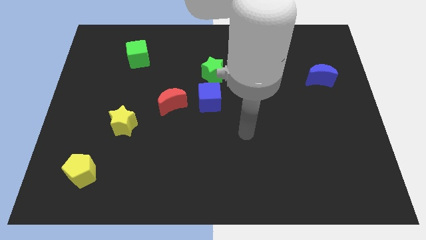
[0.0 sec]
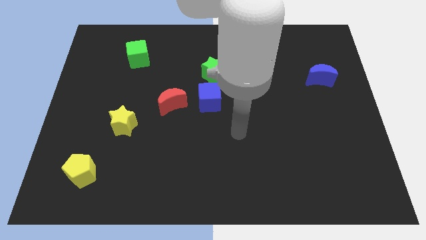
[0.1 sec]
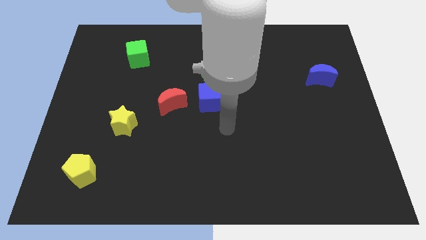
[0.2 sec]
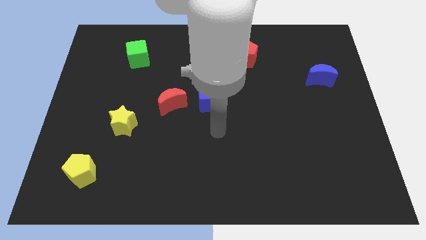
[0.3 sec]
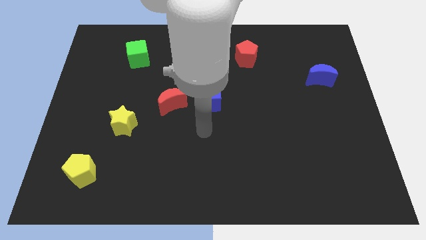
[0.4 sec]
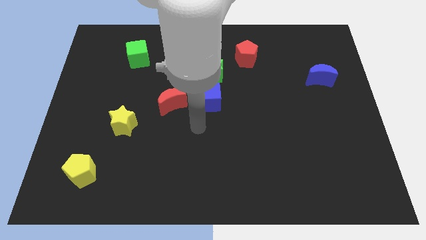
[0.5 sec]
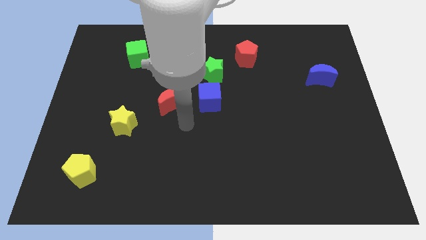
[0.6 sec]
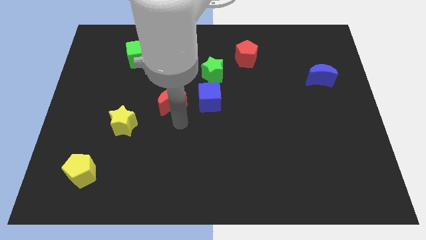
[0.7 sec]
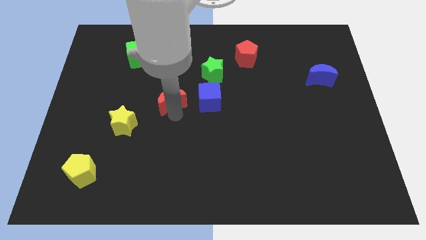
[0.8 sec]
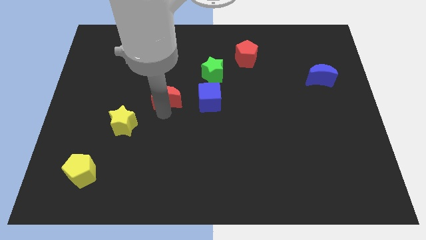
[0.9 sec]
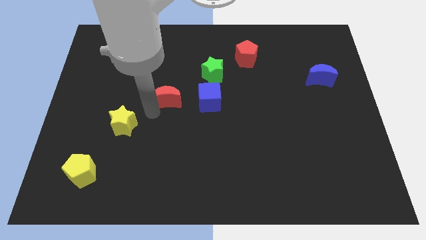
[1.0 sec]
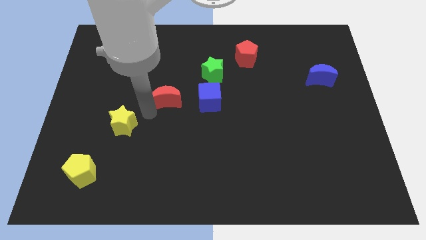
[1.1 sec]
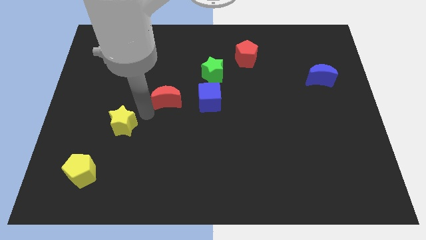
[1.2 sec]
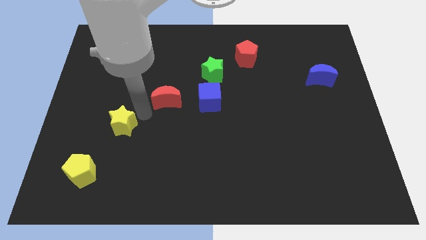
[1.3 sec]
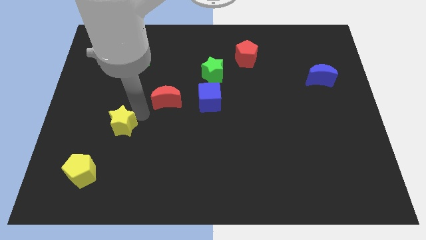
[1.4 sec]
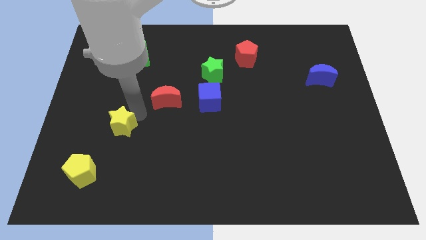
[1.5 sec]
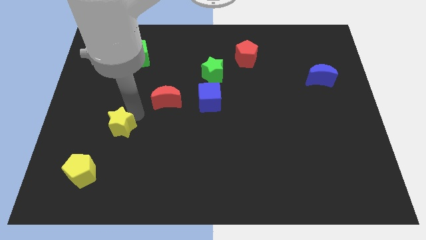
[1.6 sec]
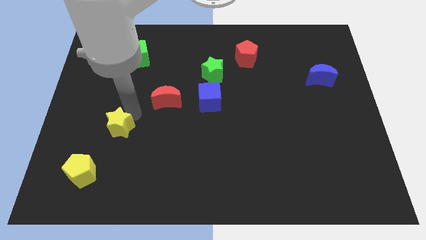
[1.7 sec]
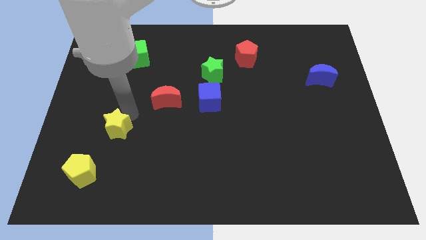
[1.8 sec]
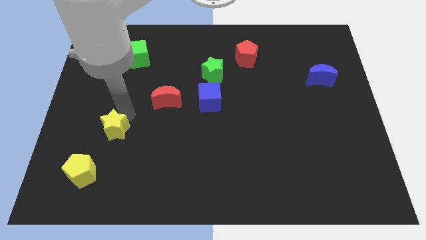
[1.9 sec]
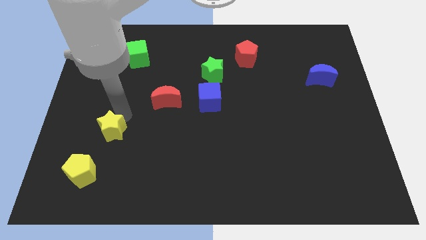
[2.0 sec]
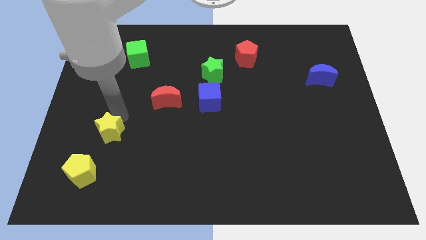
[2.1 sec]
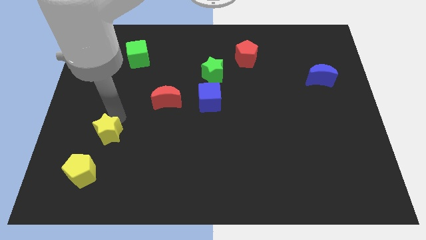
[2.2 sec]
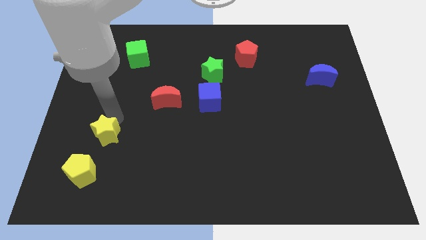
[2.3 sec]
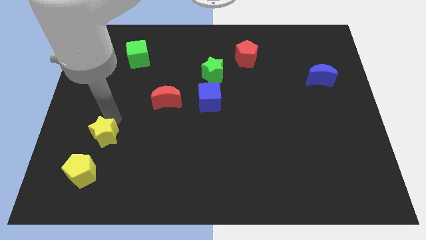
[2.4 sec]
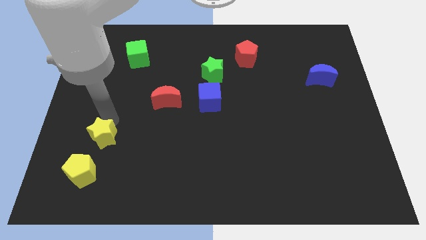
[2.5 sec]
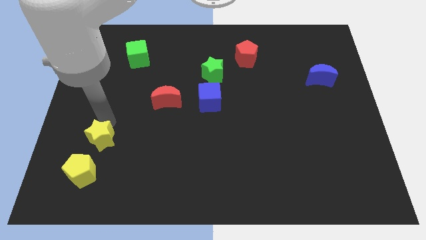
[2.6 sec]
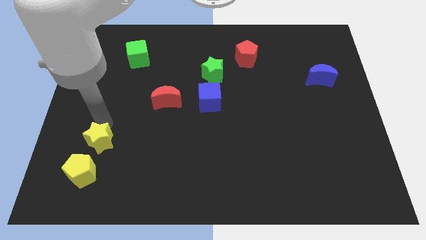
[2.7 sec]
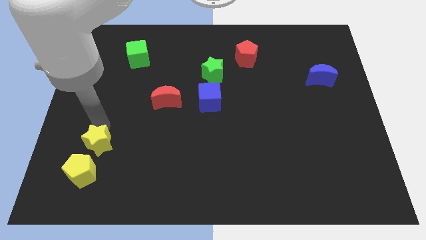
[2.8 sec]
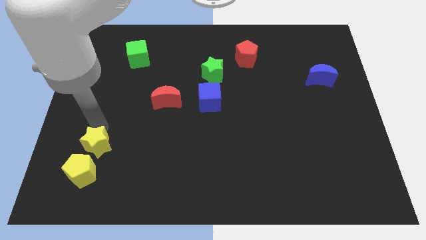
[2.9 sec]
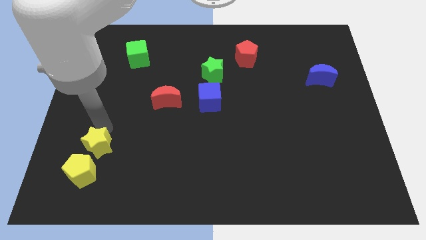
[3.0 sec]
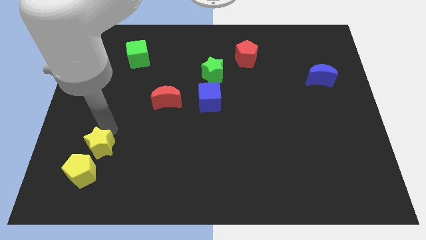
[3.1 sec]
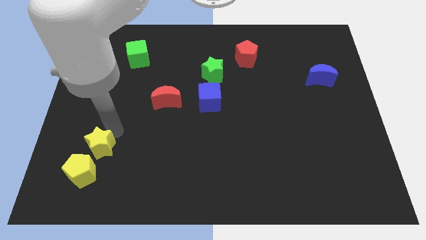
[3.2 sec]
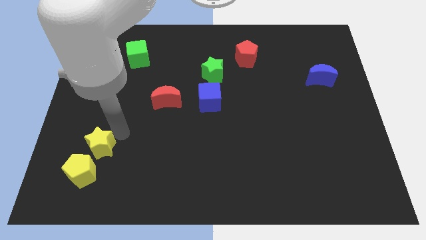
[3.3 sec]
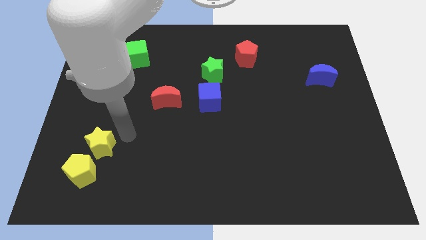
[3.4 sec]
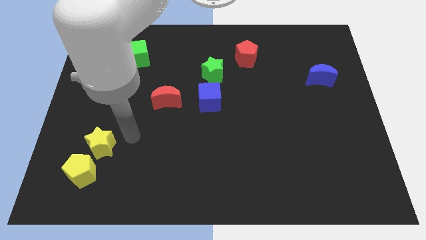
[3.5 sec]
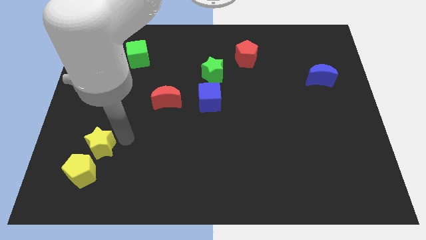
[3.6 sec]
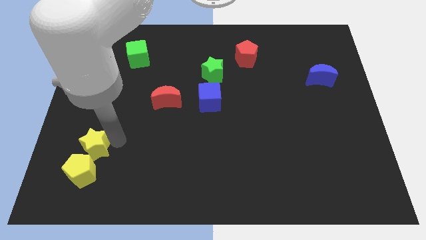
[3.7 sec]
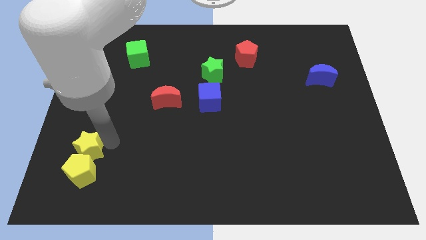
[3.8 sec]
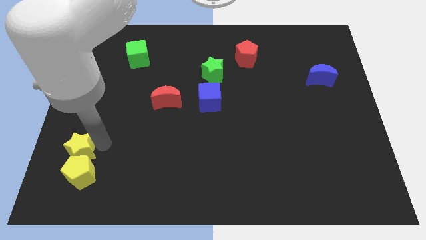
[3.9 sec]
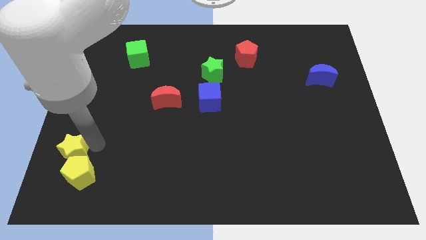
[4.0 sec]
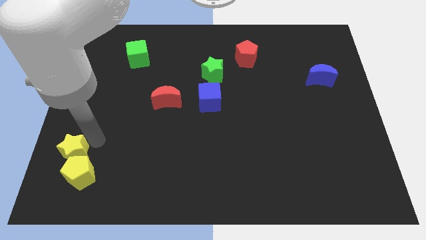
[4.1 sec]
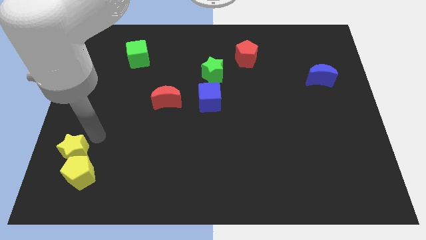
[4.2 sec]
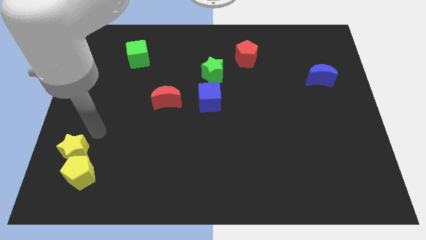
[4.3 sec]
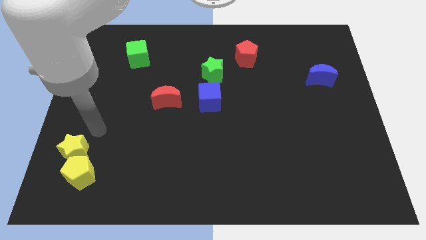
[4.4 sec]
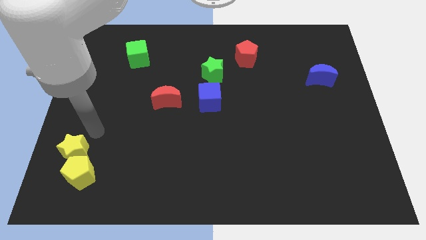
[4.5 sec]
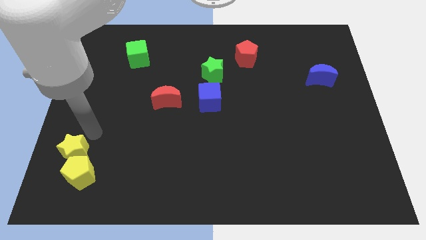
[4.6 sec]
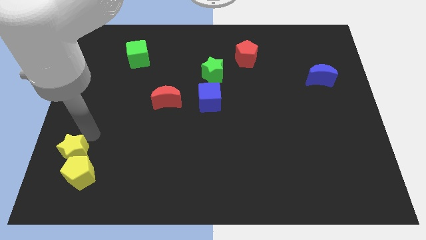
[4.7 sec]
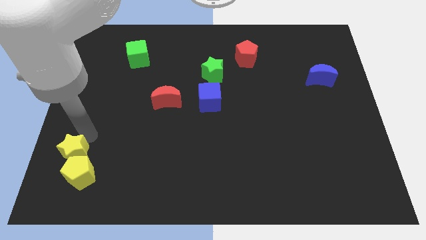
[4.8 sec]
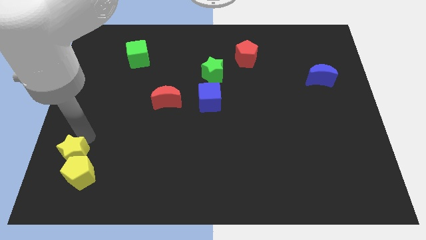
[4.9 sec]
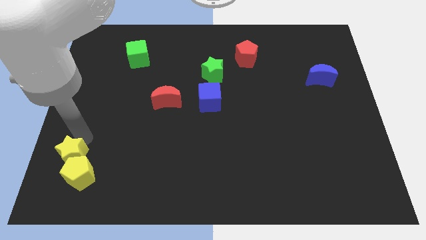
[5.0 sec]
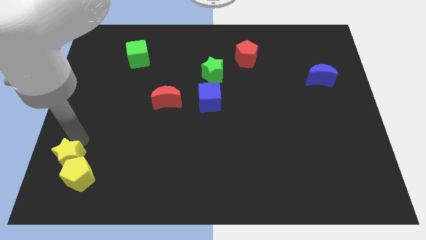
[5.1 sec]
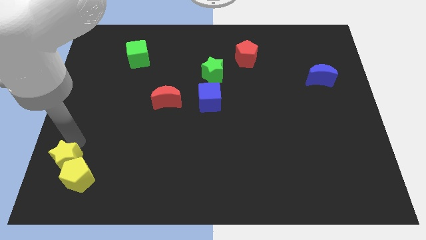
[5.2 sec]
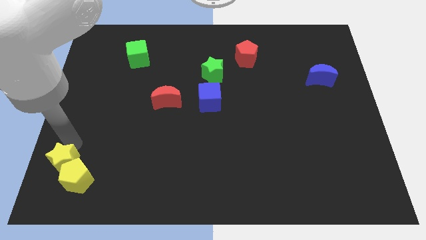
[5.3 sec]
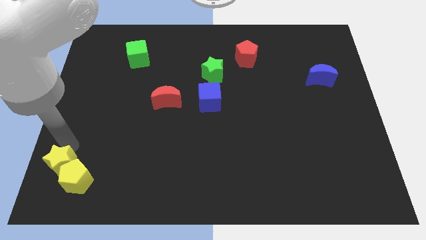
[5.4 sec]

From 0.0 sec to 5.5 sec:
slide the yellow star to the bottom left corner
